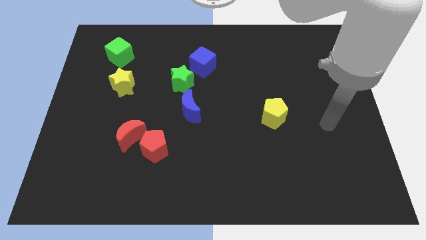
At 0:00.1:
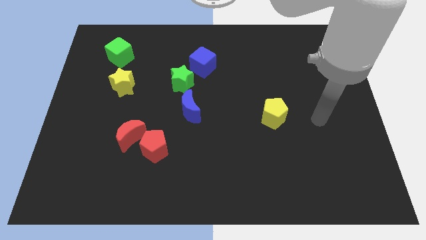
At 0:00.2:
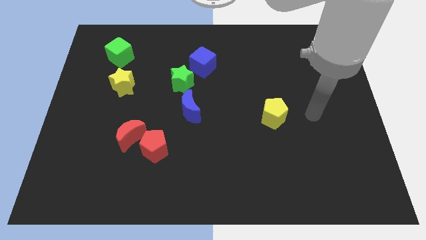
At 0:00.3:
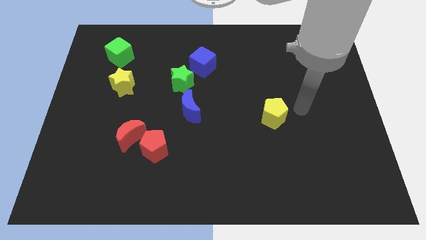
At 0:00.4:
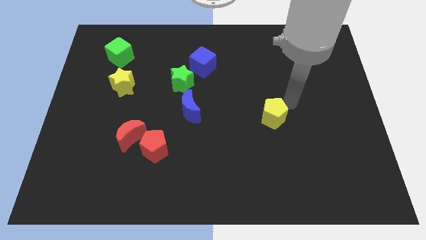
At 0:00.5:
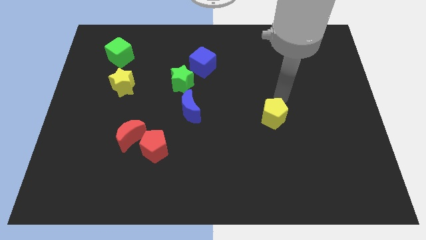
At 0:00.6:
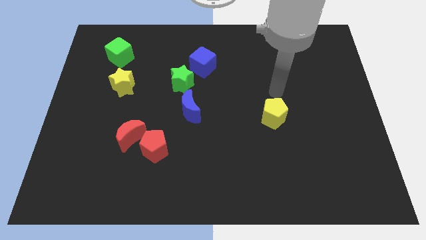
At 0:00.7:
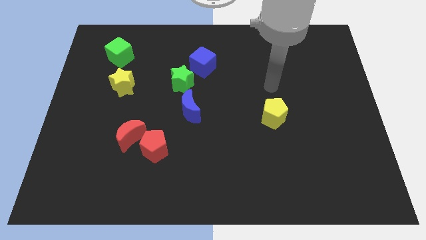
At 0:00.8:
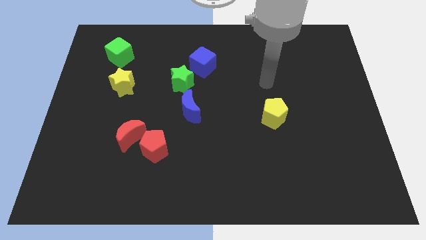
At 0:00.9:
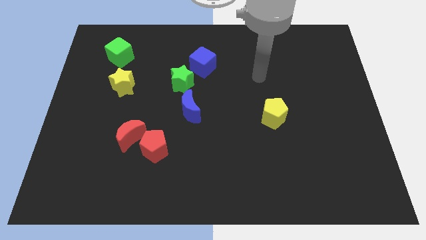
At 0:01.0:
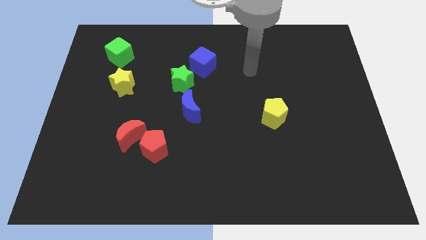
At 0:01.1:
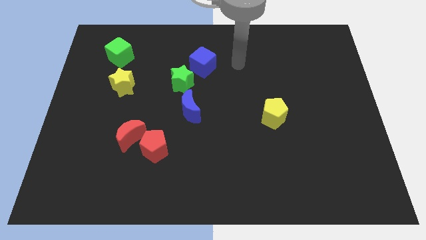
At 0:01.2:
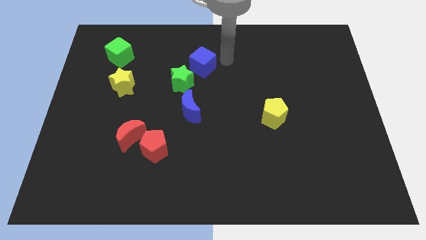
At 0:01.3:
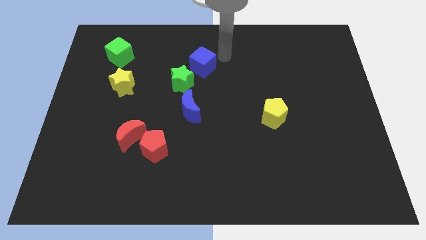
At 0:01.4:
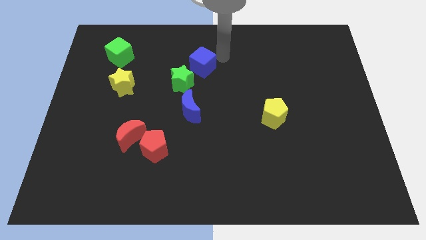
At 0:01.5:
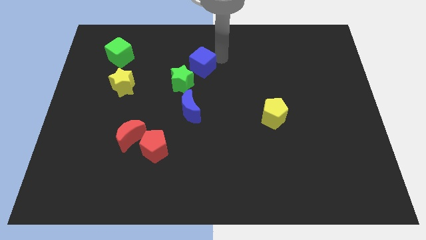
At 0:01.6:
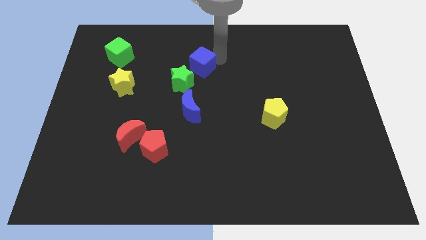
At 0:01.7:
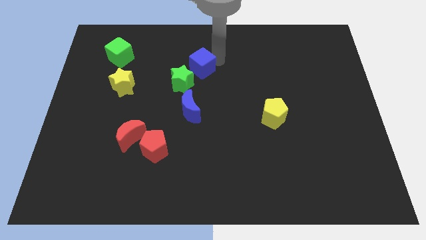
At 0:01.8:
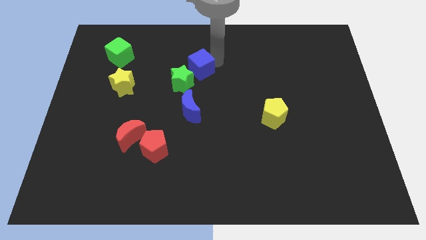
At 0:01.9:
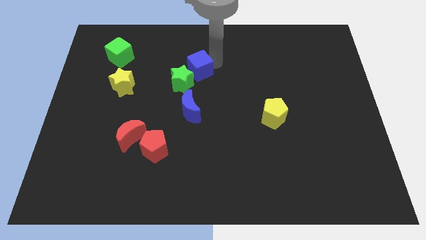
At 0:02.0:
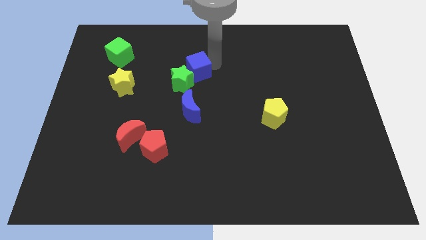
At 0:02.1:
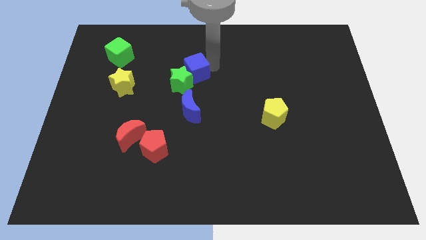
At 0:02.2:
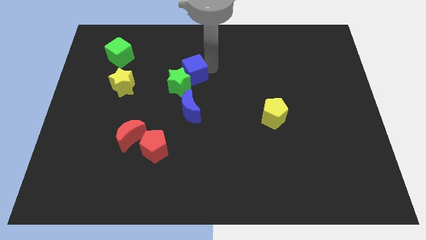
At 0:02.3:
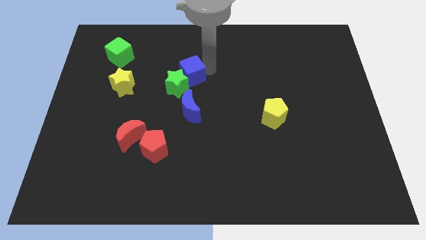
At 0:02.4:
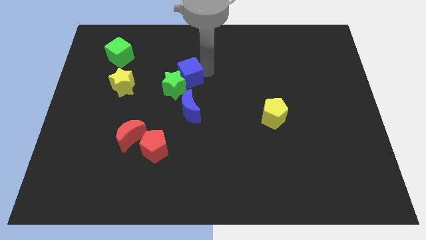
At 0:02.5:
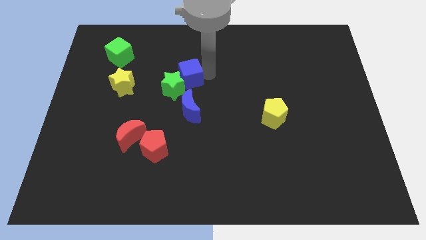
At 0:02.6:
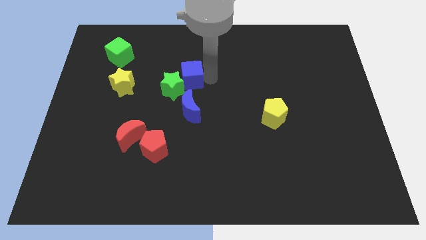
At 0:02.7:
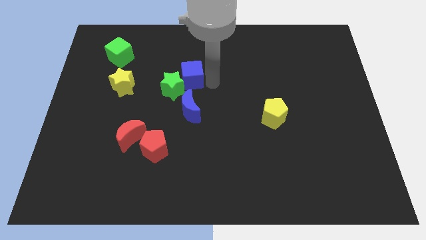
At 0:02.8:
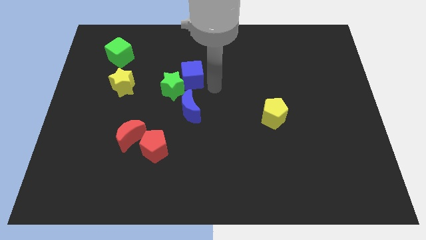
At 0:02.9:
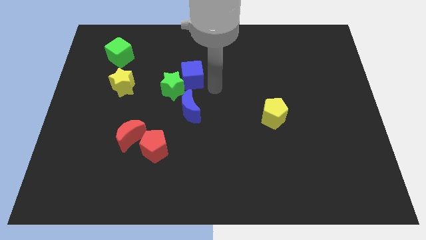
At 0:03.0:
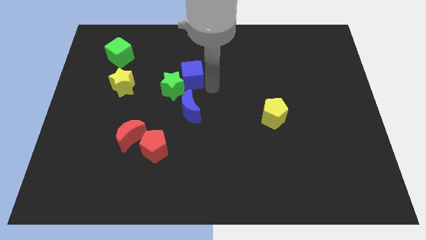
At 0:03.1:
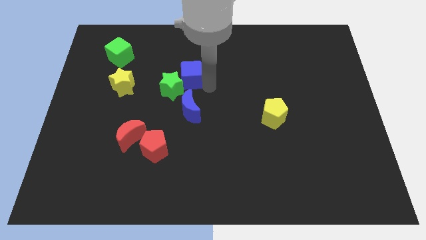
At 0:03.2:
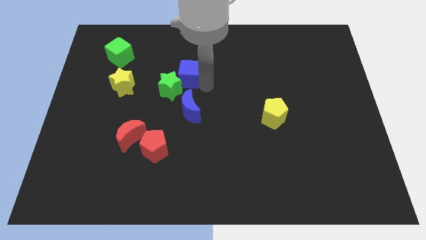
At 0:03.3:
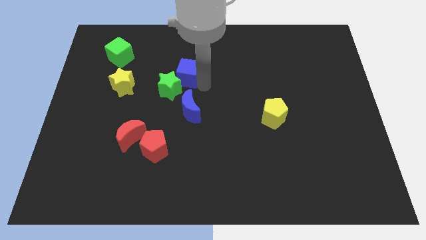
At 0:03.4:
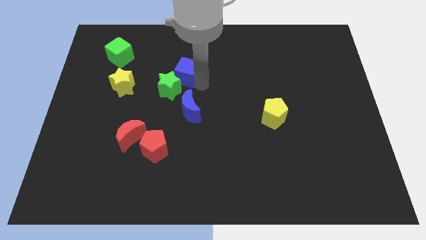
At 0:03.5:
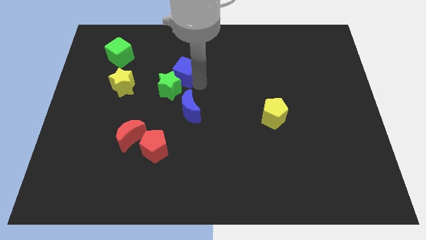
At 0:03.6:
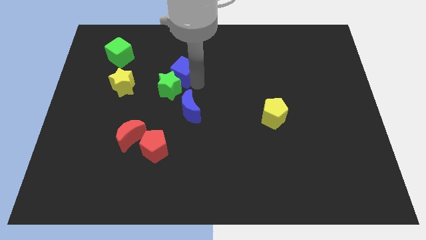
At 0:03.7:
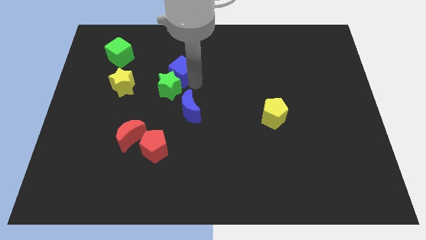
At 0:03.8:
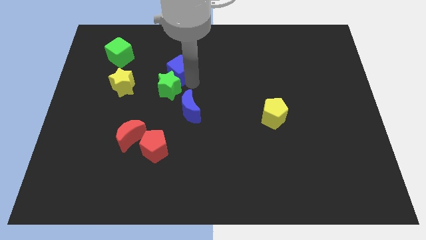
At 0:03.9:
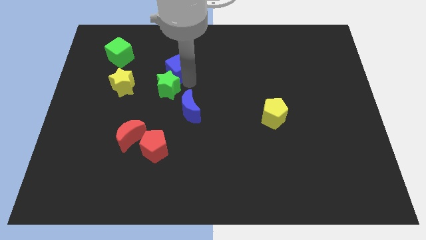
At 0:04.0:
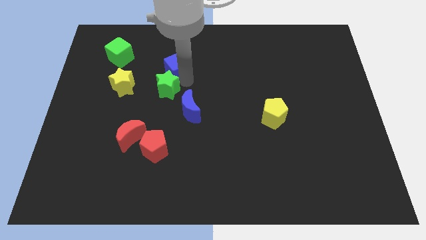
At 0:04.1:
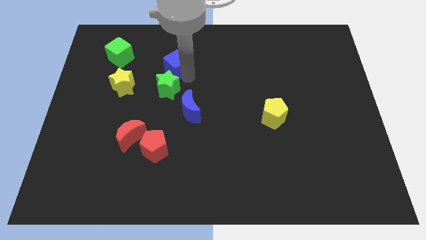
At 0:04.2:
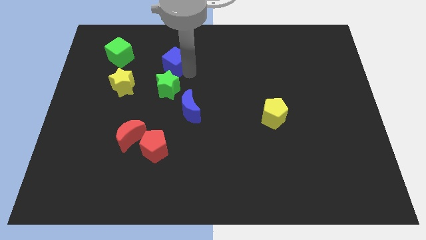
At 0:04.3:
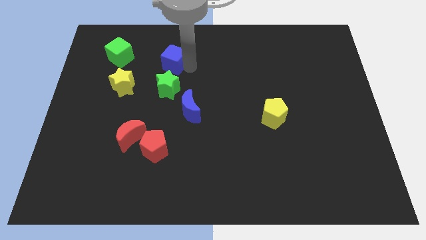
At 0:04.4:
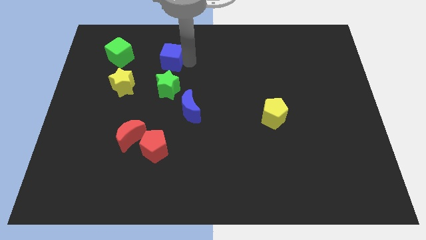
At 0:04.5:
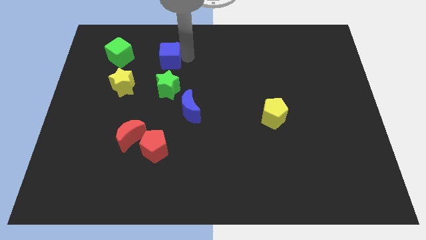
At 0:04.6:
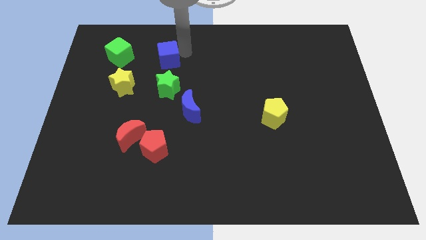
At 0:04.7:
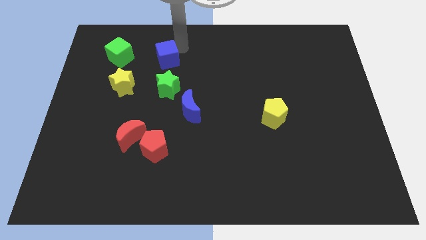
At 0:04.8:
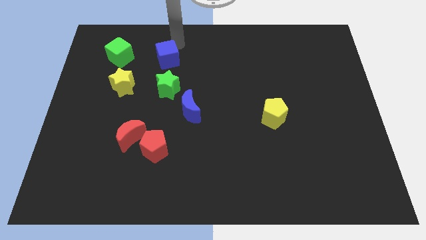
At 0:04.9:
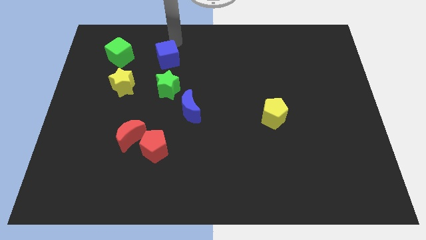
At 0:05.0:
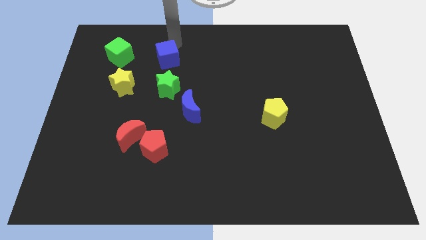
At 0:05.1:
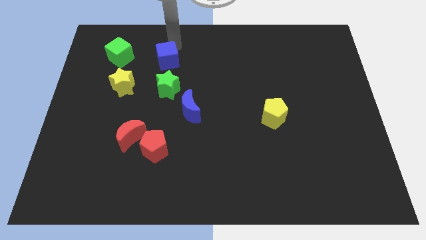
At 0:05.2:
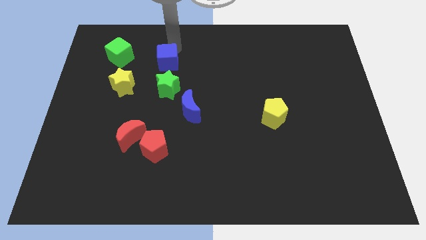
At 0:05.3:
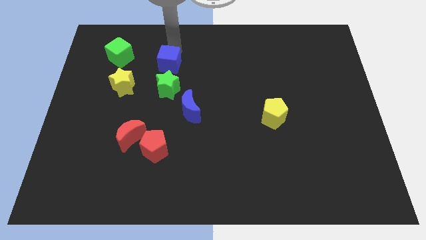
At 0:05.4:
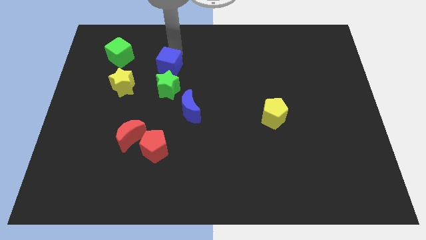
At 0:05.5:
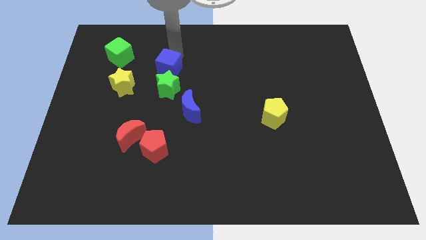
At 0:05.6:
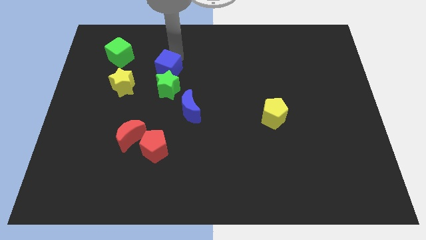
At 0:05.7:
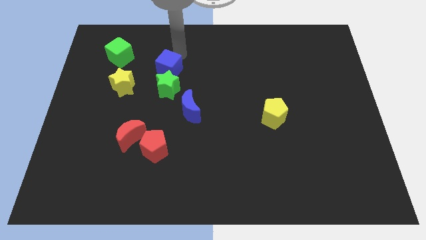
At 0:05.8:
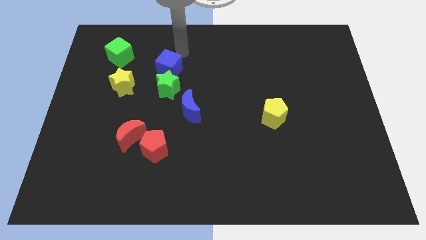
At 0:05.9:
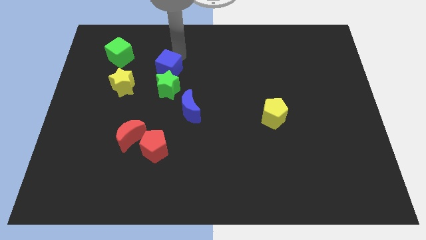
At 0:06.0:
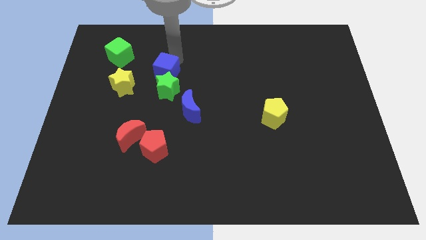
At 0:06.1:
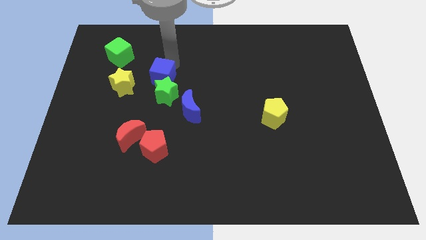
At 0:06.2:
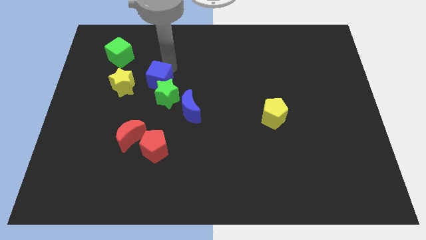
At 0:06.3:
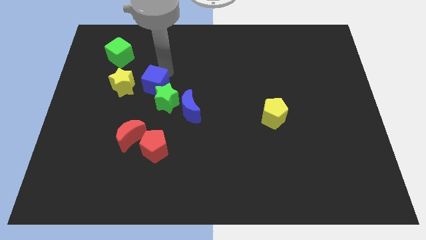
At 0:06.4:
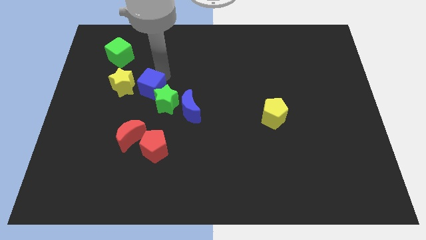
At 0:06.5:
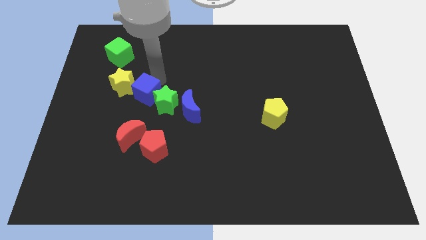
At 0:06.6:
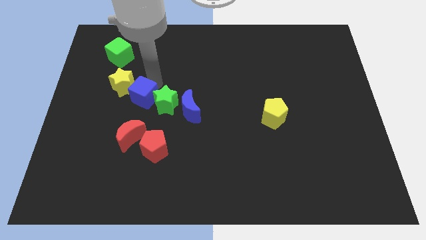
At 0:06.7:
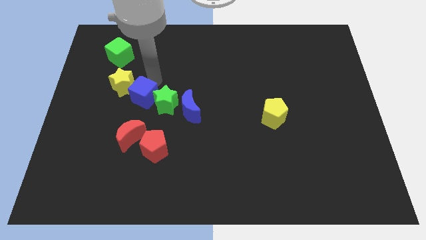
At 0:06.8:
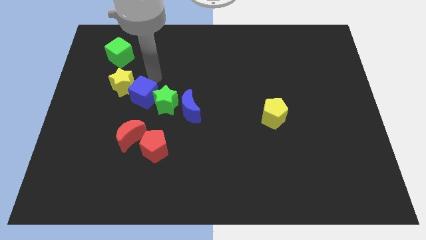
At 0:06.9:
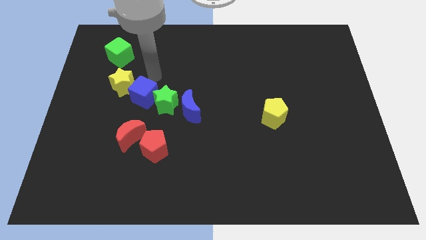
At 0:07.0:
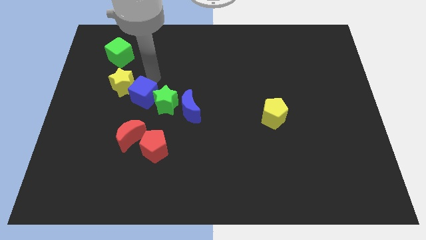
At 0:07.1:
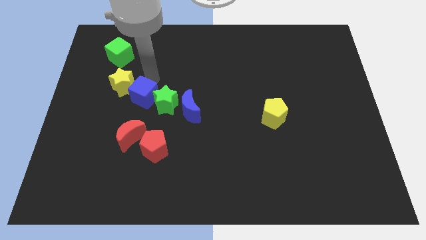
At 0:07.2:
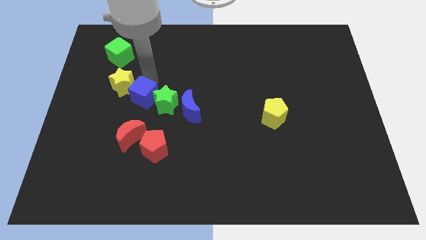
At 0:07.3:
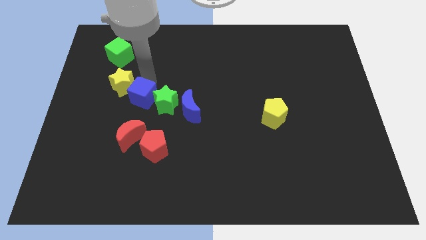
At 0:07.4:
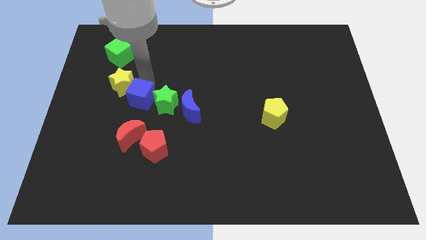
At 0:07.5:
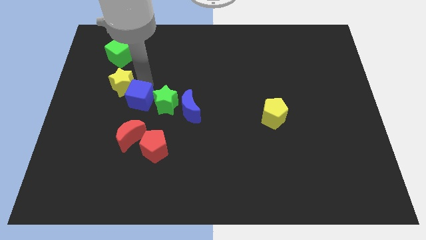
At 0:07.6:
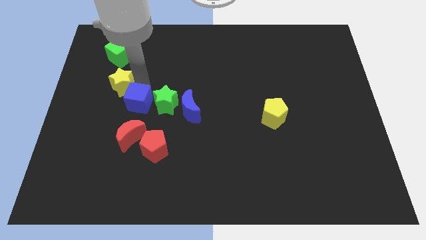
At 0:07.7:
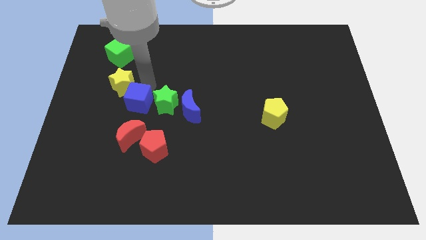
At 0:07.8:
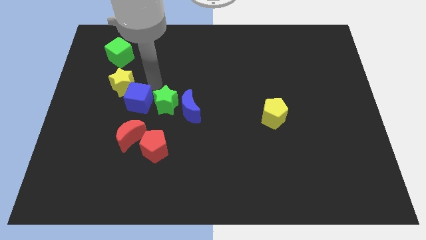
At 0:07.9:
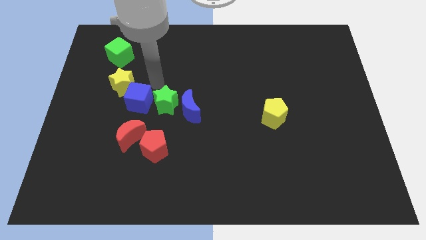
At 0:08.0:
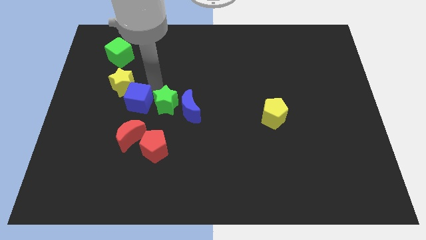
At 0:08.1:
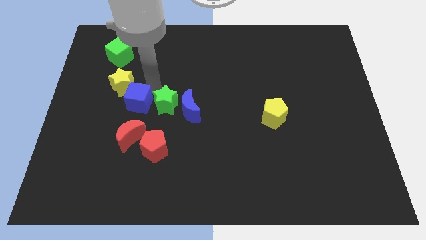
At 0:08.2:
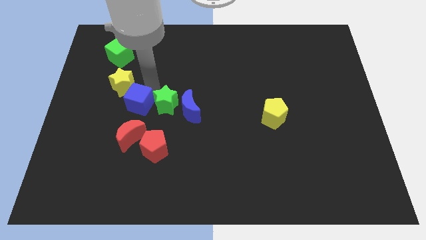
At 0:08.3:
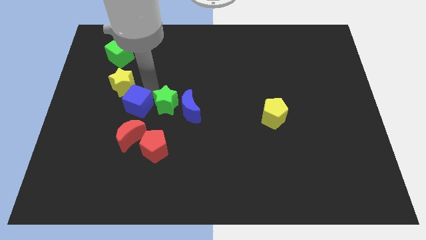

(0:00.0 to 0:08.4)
push the blue cube down and to the left
